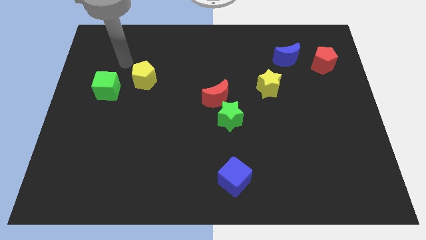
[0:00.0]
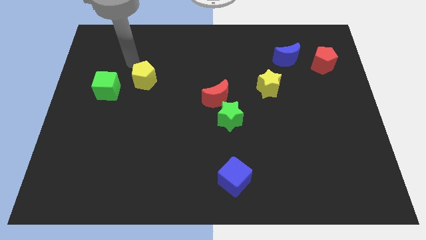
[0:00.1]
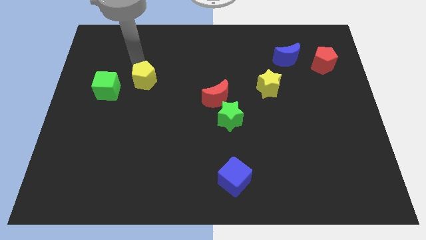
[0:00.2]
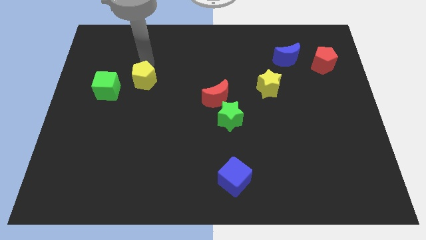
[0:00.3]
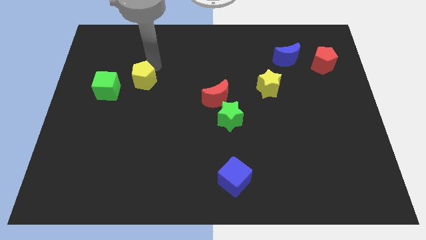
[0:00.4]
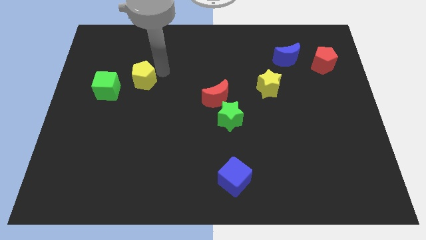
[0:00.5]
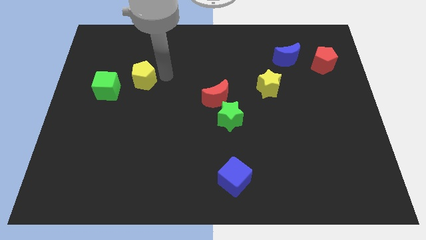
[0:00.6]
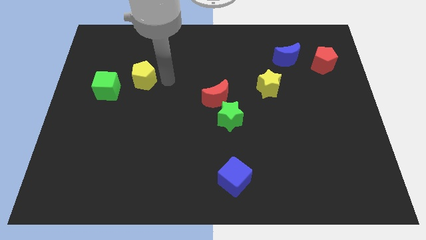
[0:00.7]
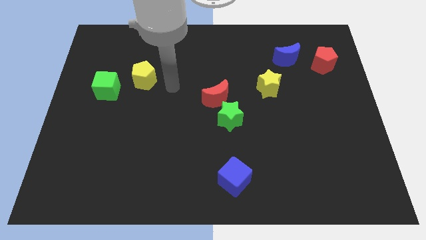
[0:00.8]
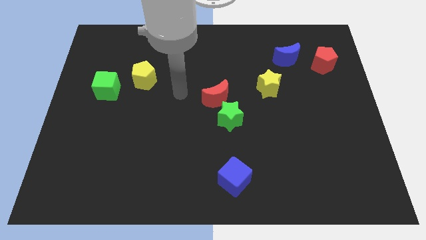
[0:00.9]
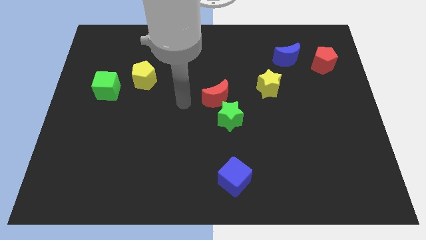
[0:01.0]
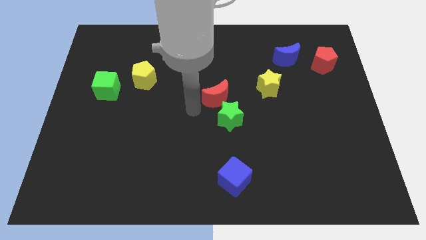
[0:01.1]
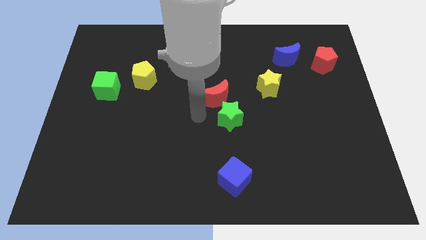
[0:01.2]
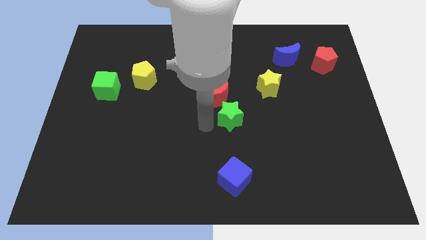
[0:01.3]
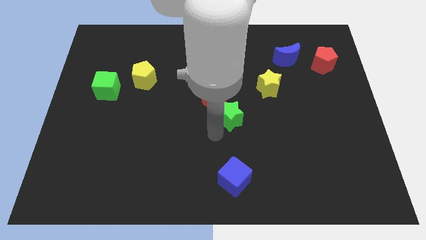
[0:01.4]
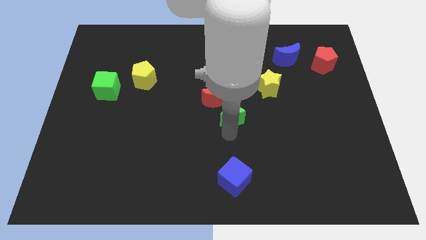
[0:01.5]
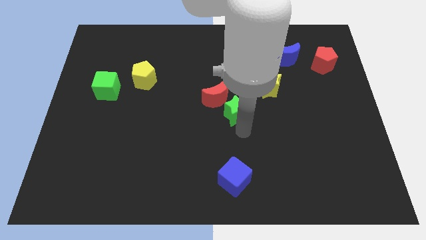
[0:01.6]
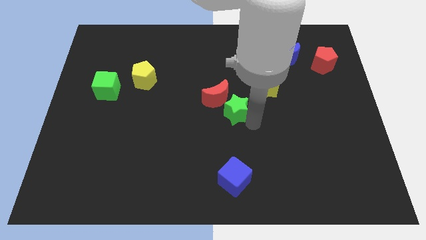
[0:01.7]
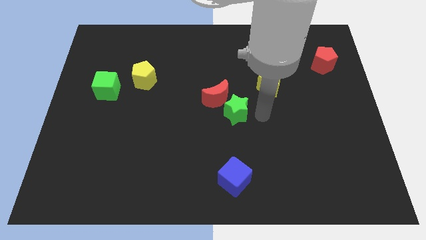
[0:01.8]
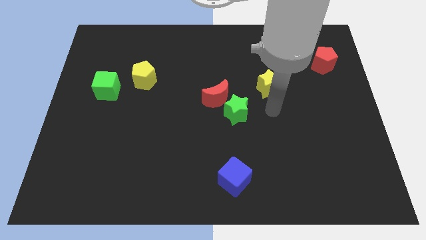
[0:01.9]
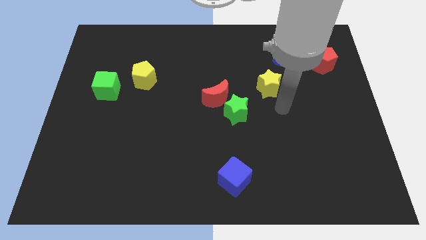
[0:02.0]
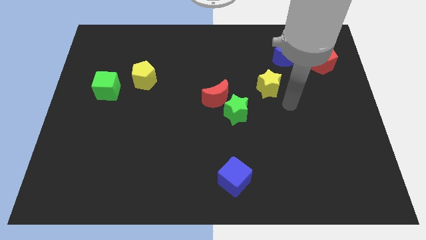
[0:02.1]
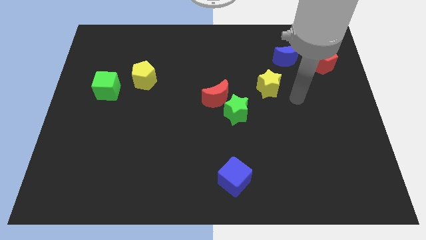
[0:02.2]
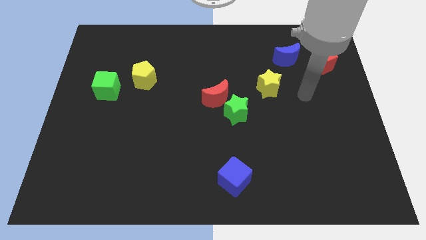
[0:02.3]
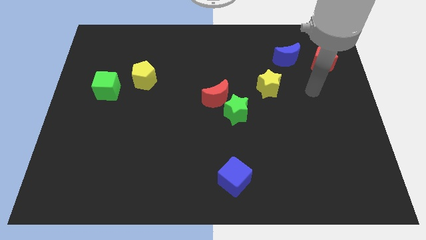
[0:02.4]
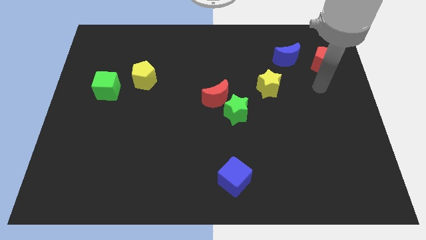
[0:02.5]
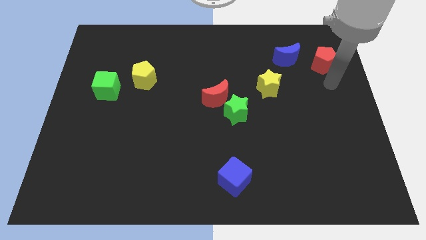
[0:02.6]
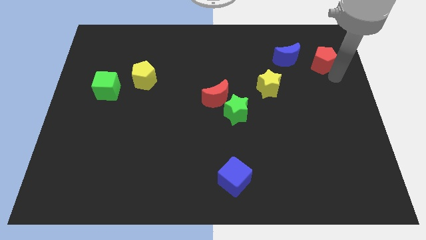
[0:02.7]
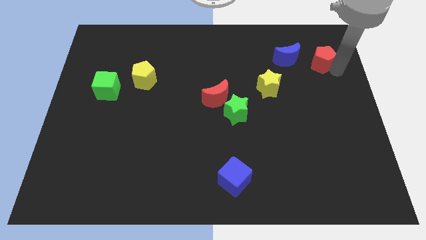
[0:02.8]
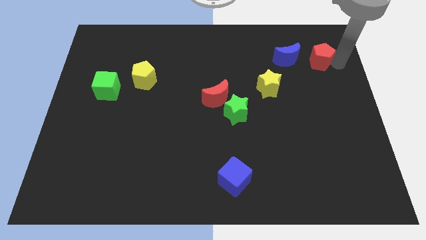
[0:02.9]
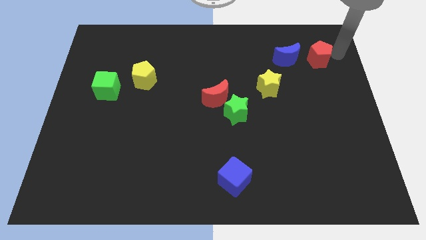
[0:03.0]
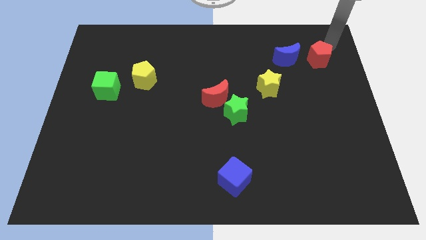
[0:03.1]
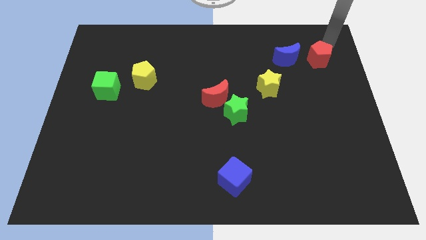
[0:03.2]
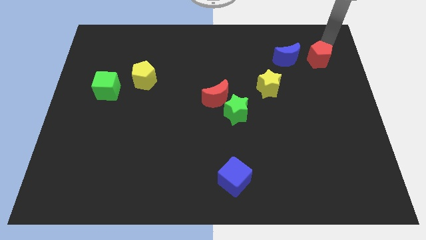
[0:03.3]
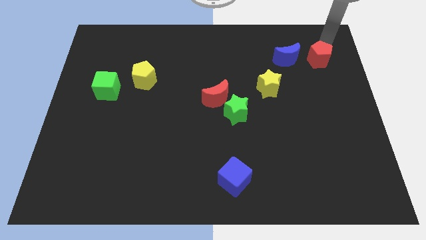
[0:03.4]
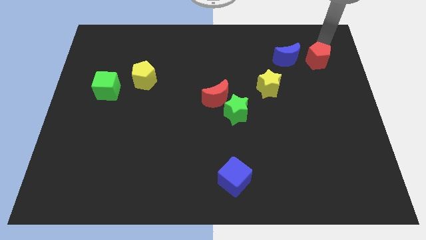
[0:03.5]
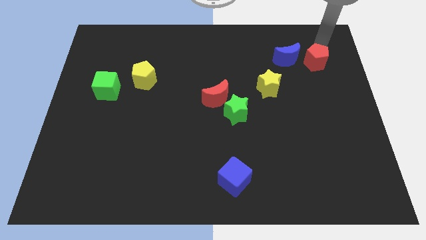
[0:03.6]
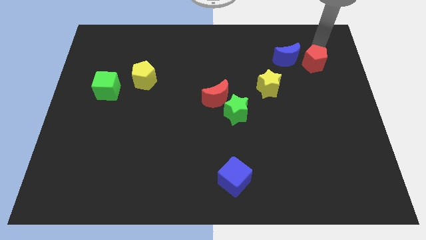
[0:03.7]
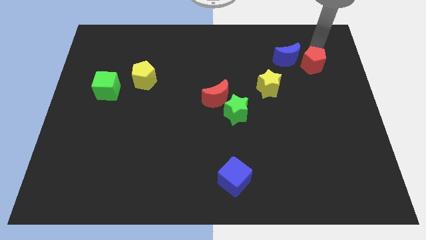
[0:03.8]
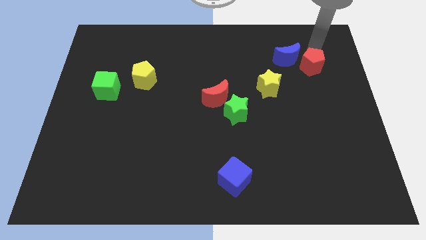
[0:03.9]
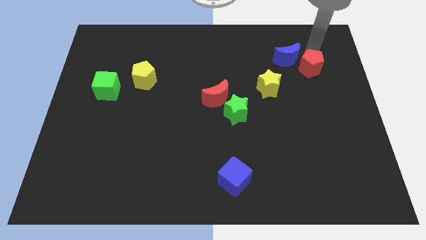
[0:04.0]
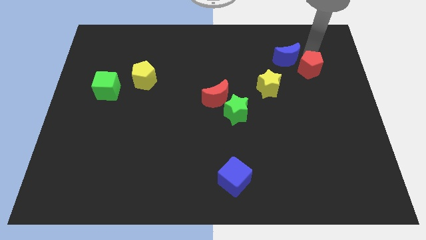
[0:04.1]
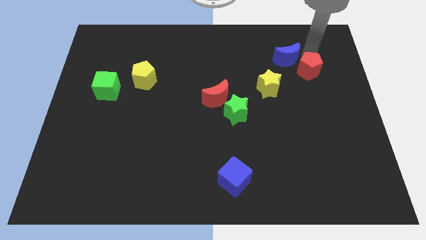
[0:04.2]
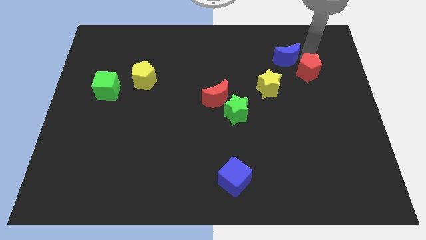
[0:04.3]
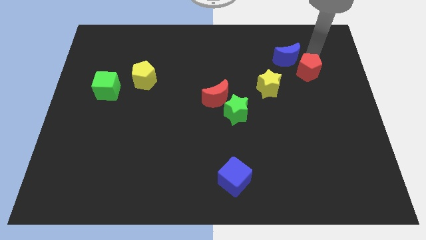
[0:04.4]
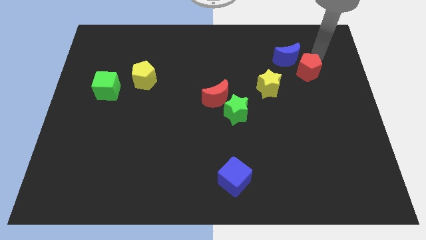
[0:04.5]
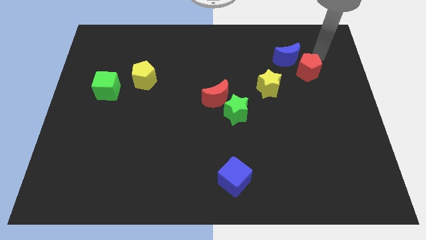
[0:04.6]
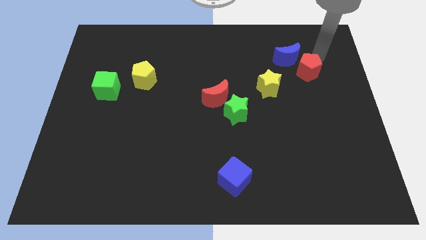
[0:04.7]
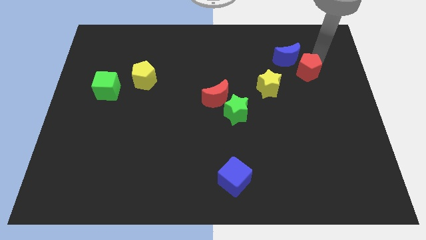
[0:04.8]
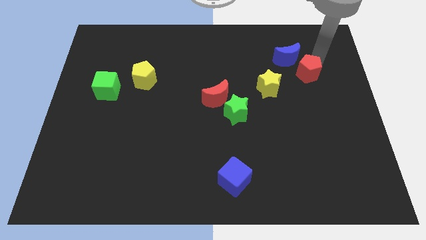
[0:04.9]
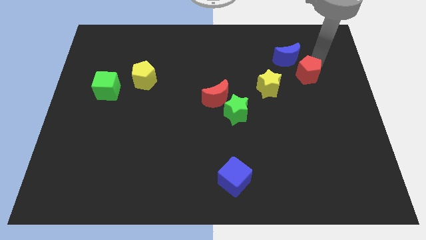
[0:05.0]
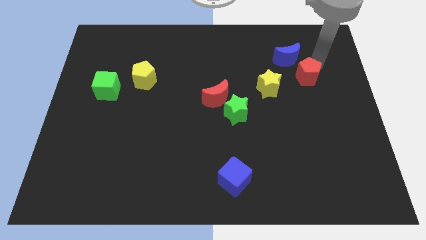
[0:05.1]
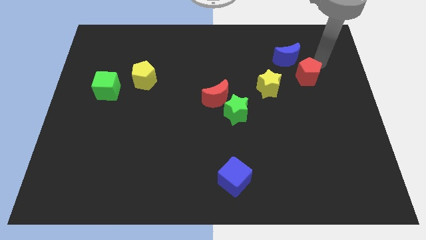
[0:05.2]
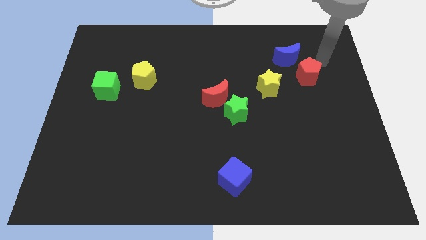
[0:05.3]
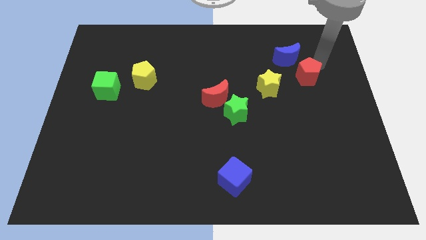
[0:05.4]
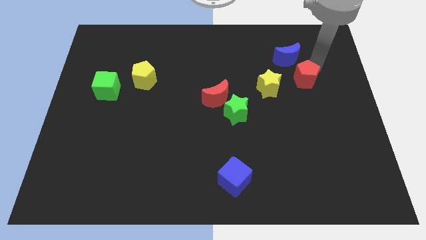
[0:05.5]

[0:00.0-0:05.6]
push the red pentagon somewhat diagonally downwards and left

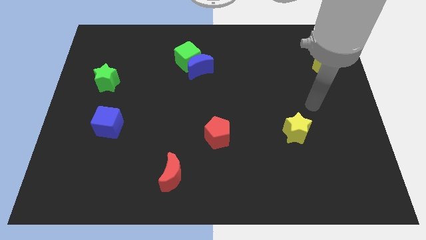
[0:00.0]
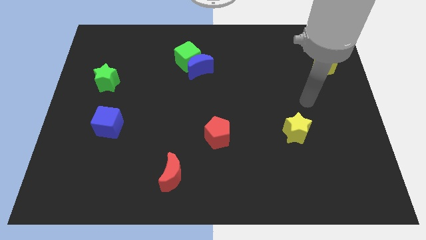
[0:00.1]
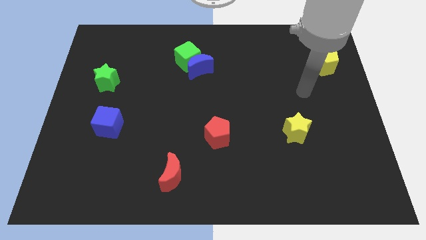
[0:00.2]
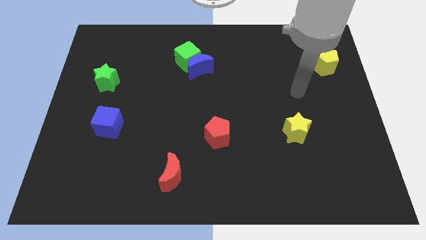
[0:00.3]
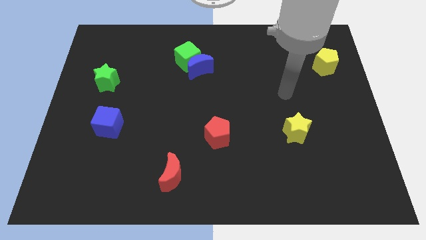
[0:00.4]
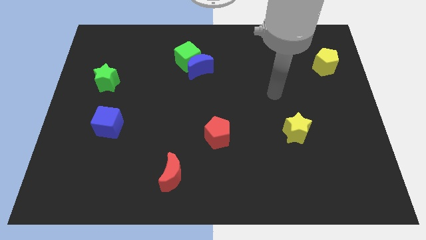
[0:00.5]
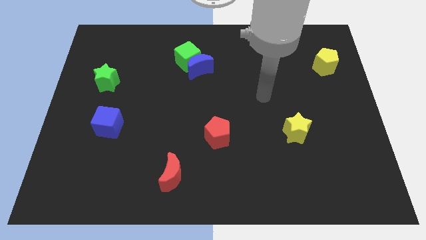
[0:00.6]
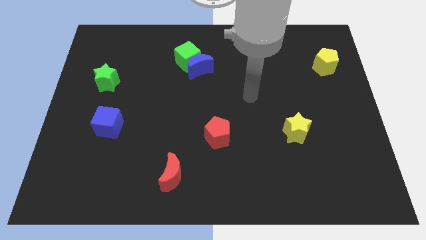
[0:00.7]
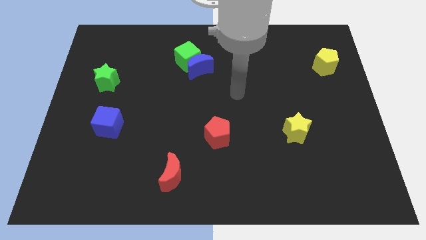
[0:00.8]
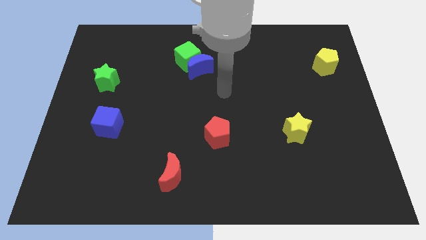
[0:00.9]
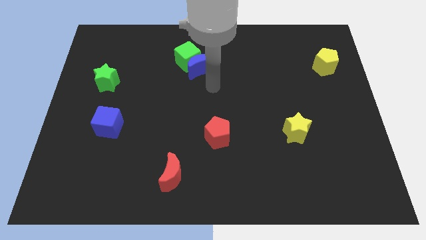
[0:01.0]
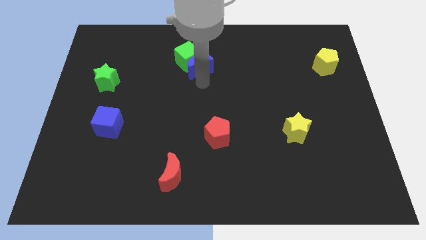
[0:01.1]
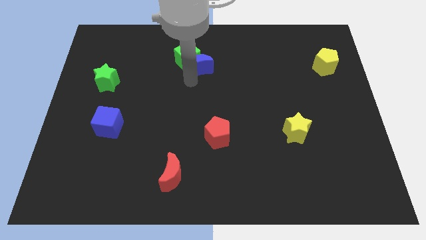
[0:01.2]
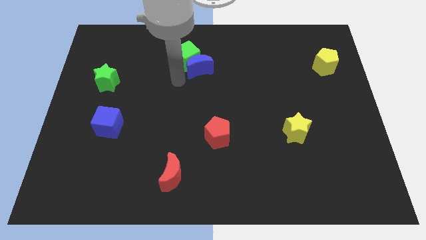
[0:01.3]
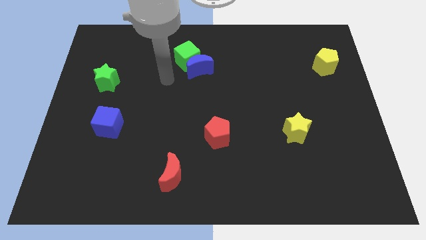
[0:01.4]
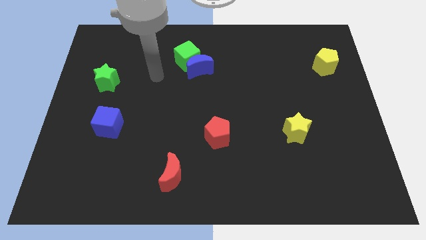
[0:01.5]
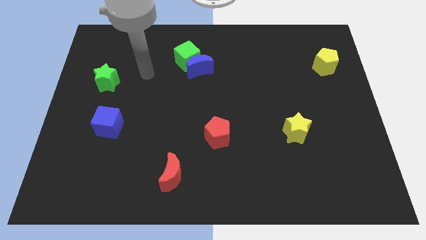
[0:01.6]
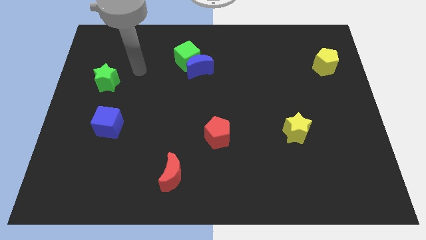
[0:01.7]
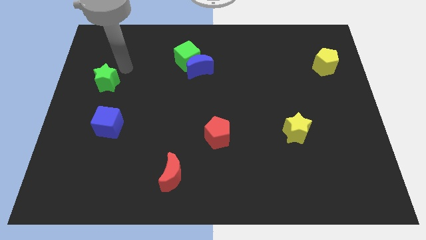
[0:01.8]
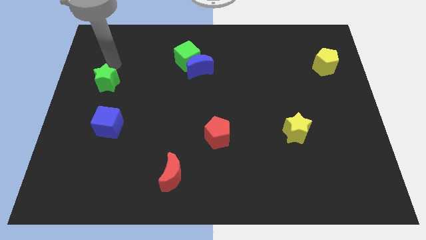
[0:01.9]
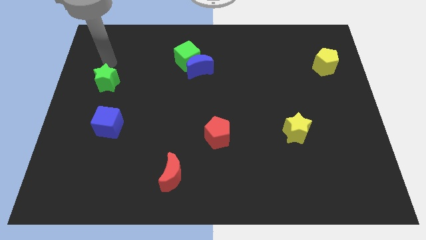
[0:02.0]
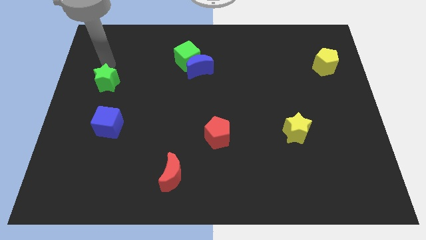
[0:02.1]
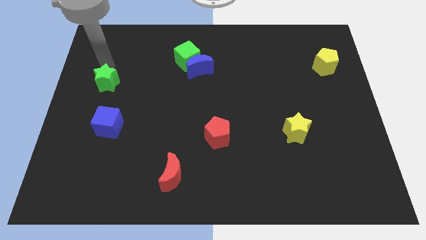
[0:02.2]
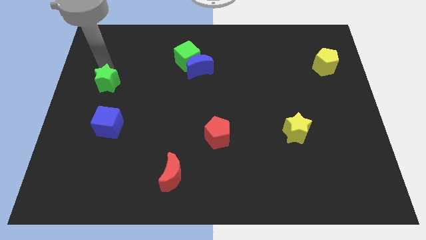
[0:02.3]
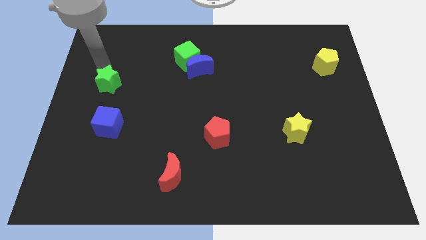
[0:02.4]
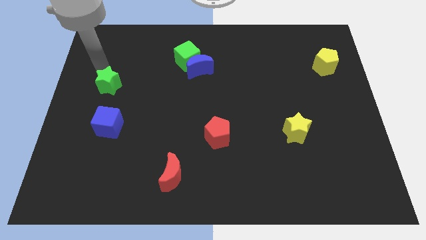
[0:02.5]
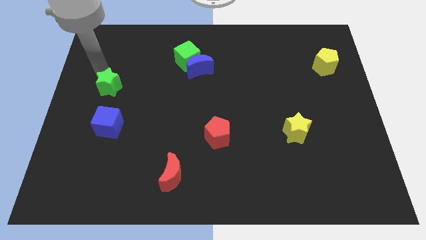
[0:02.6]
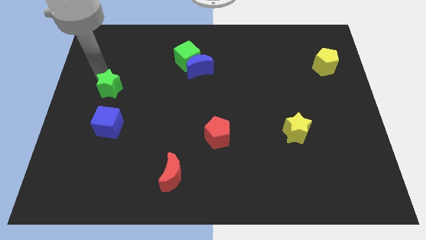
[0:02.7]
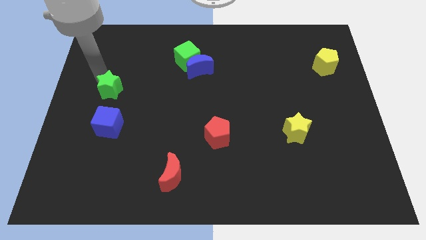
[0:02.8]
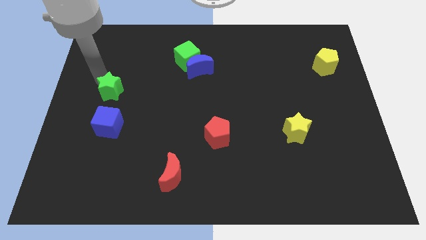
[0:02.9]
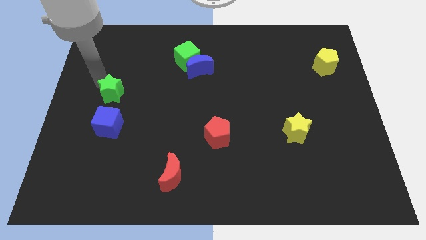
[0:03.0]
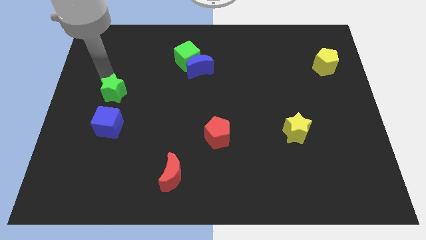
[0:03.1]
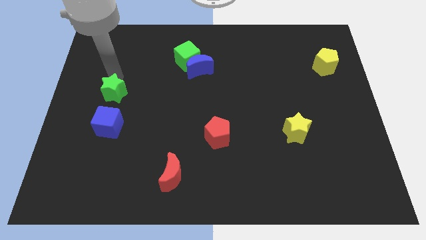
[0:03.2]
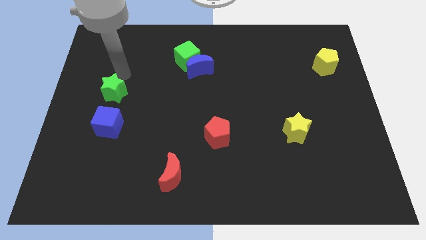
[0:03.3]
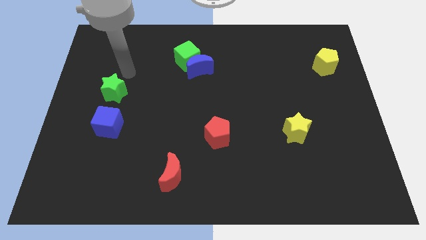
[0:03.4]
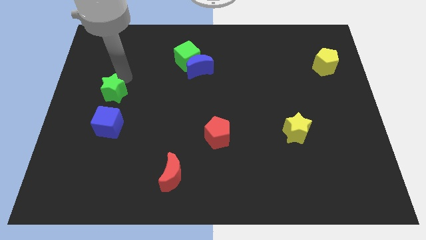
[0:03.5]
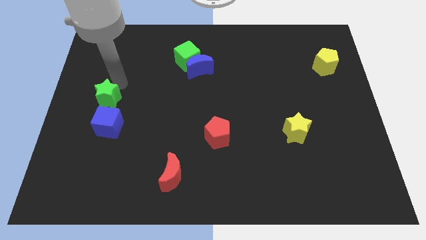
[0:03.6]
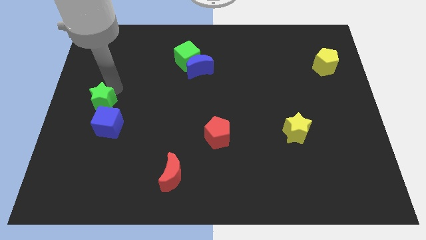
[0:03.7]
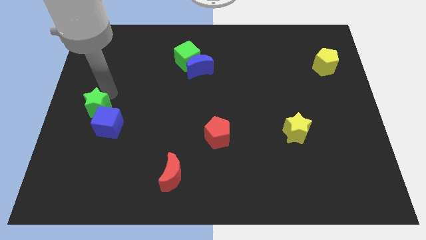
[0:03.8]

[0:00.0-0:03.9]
move the green star down a little bit
